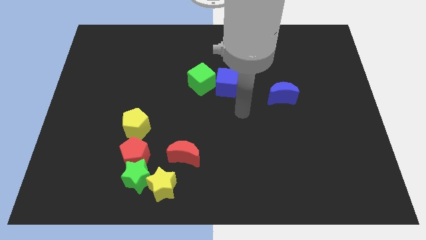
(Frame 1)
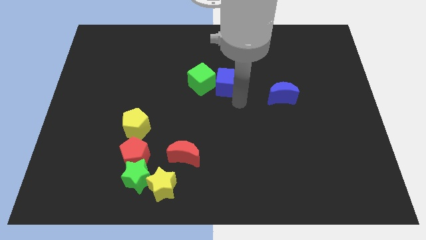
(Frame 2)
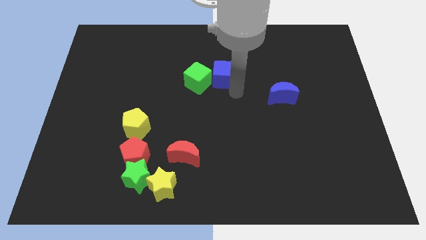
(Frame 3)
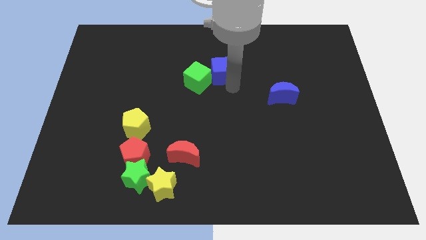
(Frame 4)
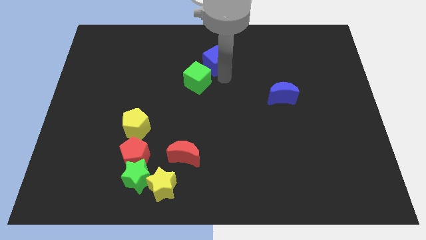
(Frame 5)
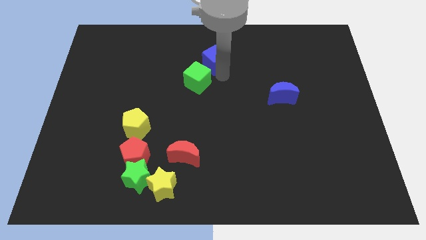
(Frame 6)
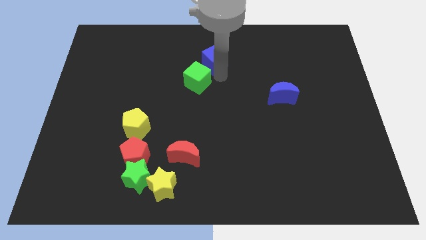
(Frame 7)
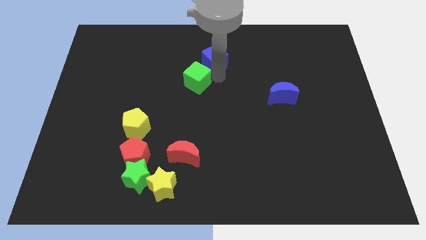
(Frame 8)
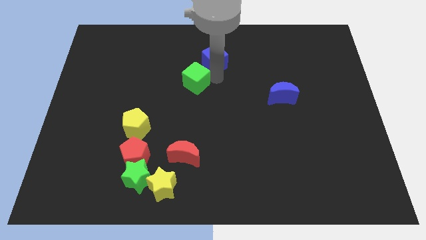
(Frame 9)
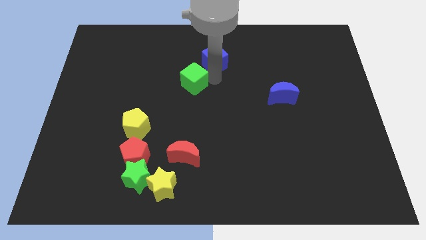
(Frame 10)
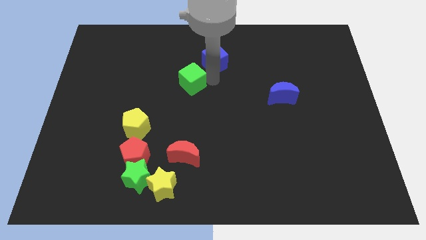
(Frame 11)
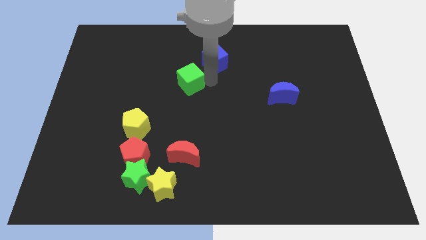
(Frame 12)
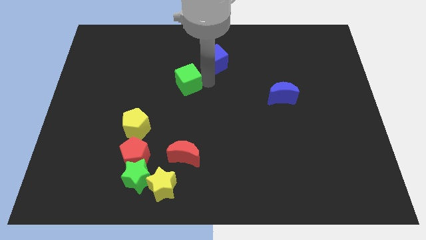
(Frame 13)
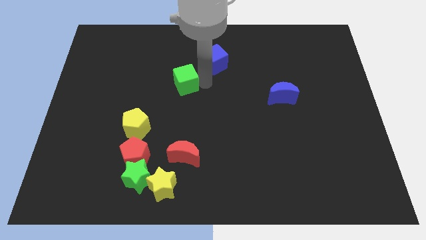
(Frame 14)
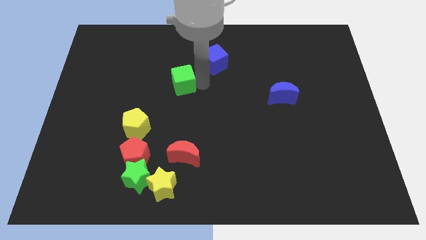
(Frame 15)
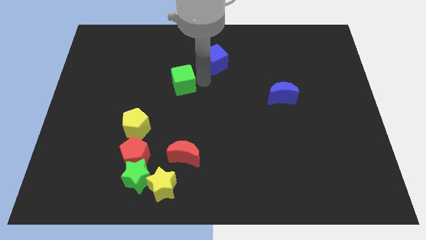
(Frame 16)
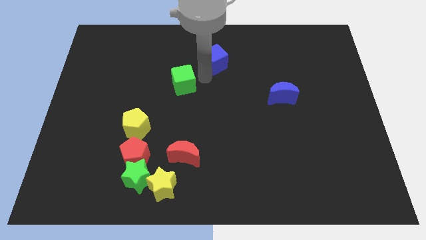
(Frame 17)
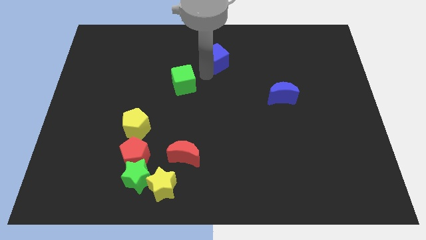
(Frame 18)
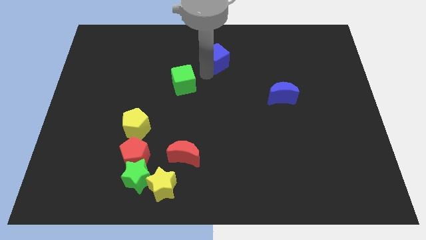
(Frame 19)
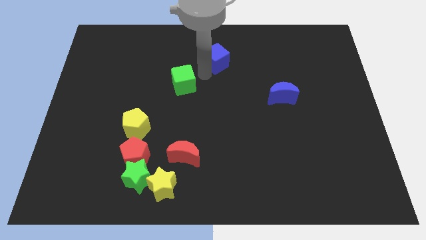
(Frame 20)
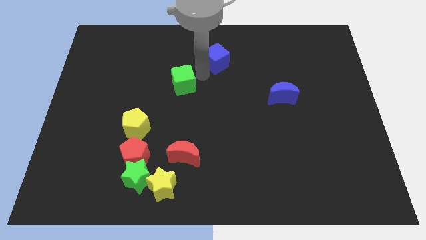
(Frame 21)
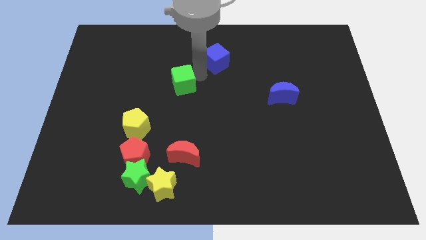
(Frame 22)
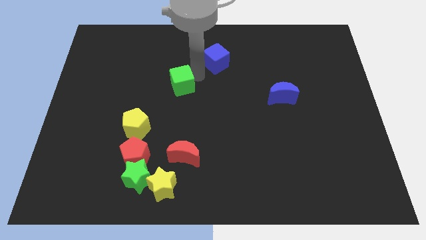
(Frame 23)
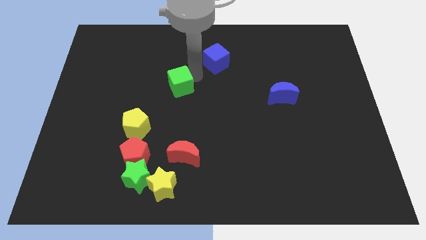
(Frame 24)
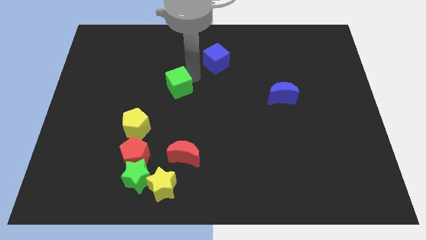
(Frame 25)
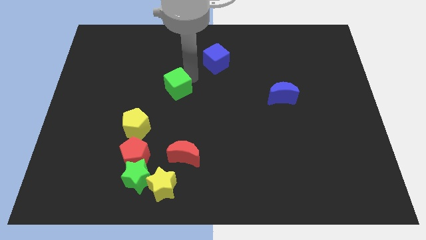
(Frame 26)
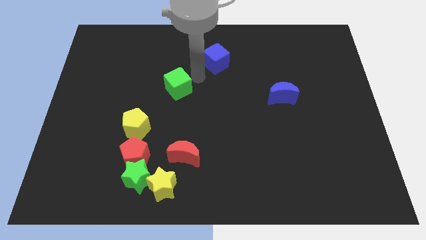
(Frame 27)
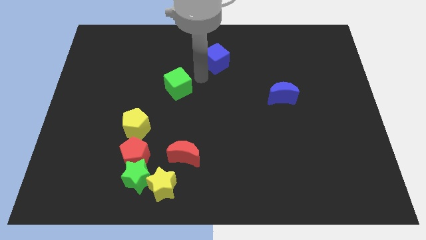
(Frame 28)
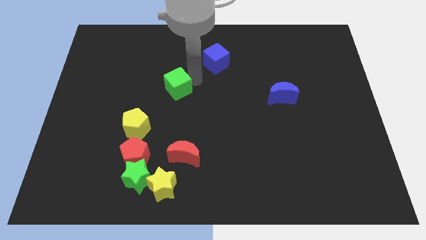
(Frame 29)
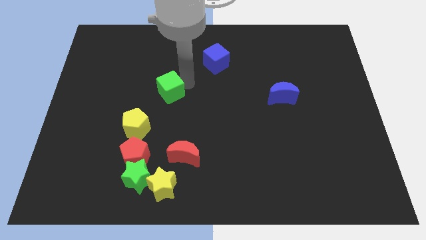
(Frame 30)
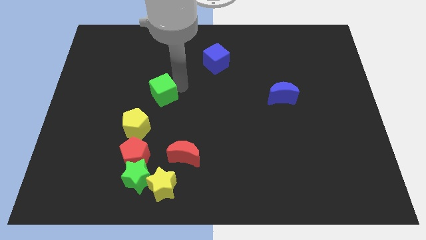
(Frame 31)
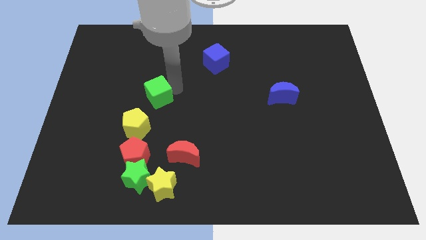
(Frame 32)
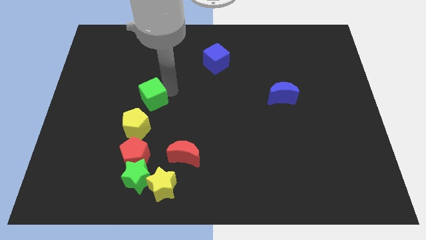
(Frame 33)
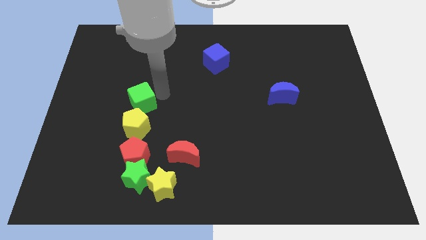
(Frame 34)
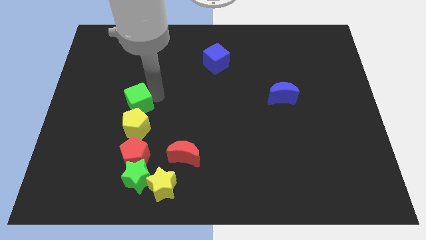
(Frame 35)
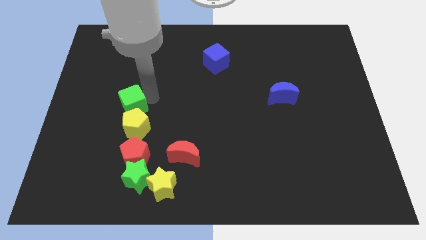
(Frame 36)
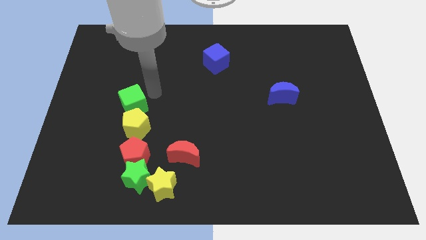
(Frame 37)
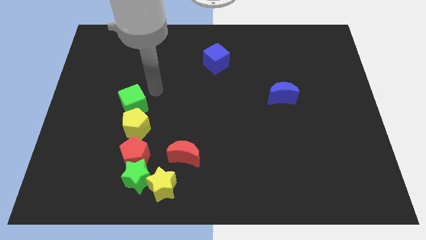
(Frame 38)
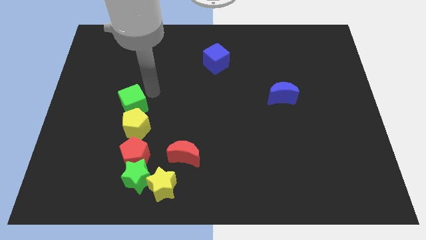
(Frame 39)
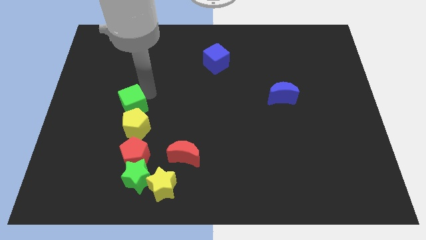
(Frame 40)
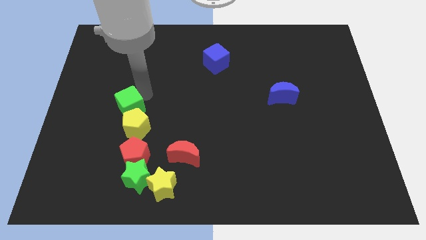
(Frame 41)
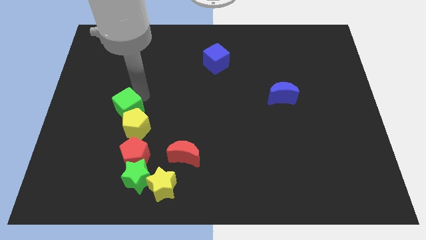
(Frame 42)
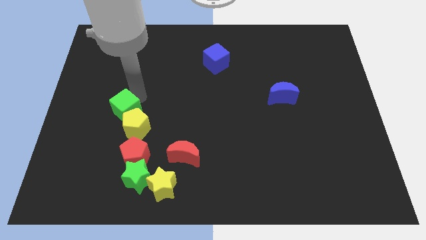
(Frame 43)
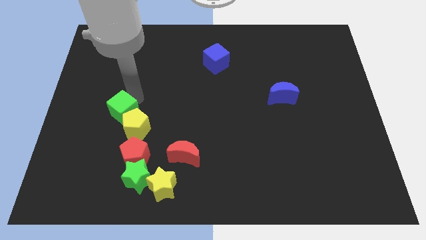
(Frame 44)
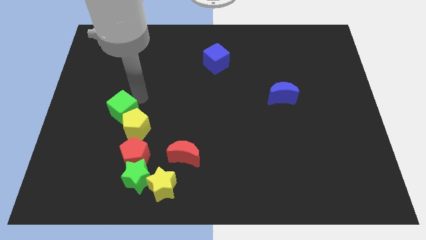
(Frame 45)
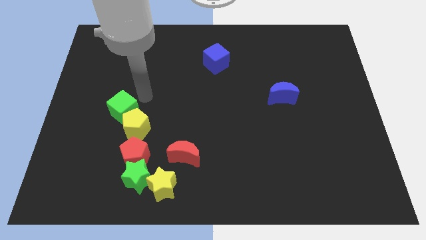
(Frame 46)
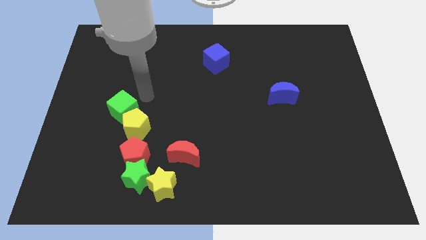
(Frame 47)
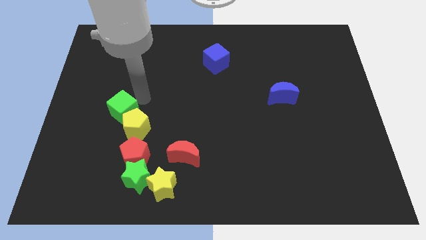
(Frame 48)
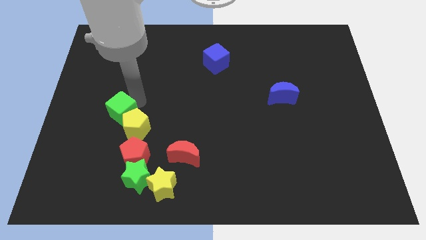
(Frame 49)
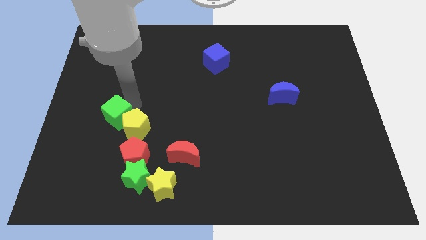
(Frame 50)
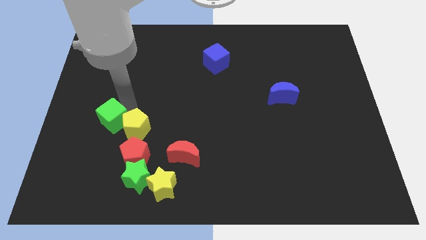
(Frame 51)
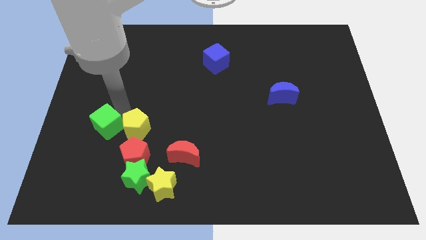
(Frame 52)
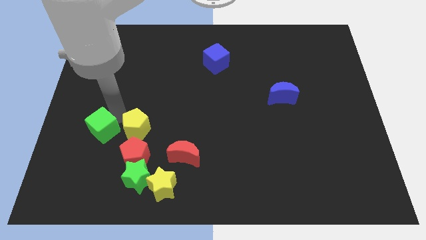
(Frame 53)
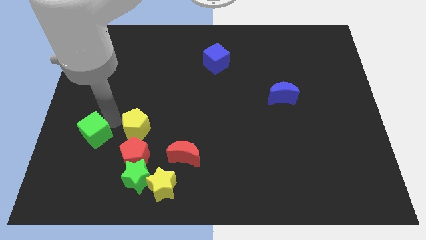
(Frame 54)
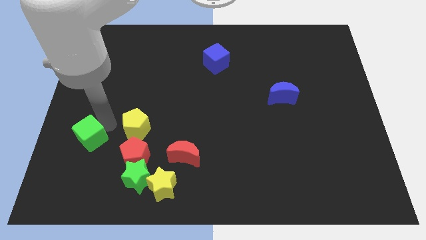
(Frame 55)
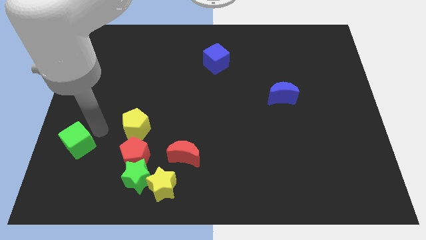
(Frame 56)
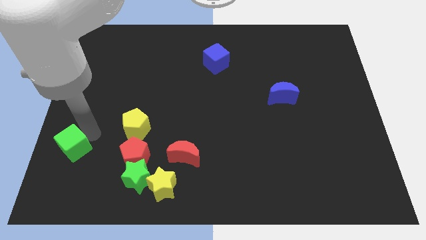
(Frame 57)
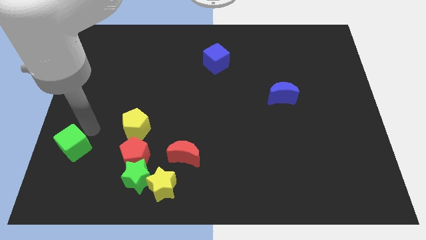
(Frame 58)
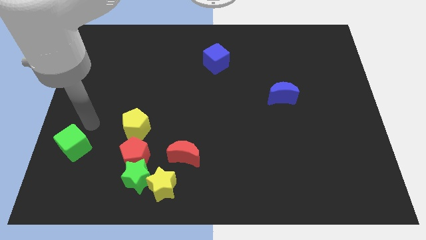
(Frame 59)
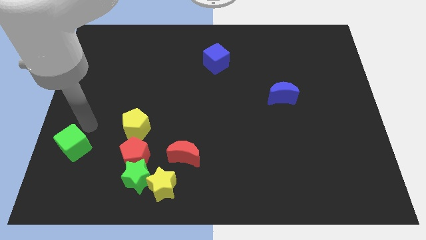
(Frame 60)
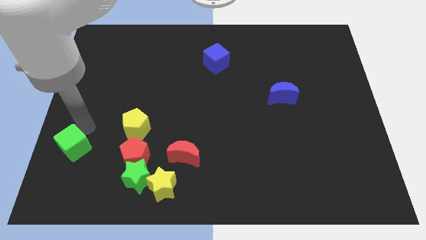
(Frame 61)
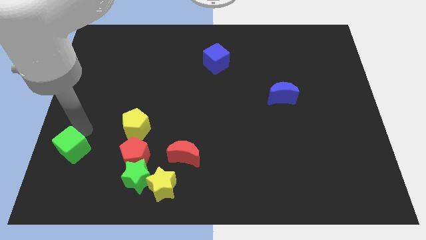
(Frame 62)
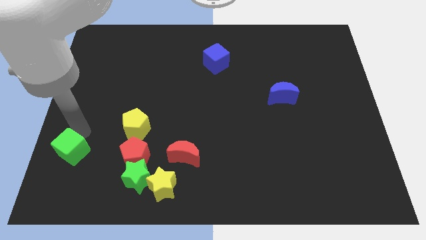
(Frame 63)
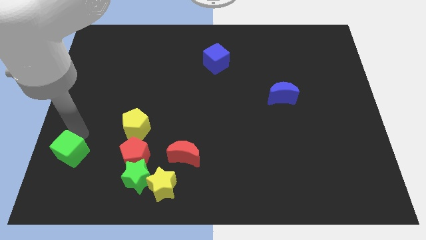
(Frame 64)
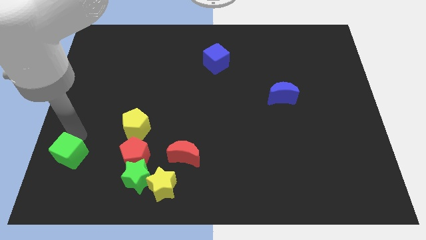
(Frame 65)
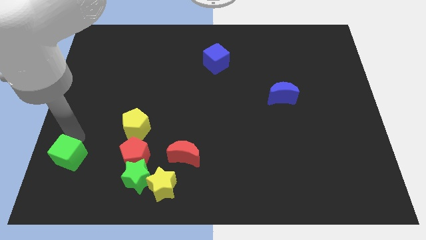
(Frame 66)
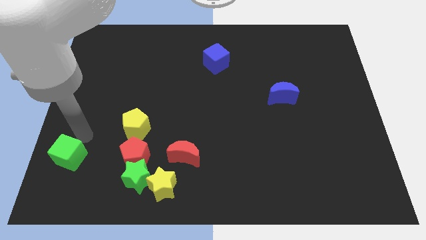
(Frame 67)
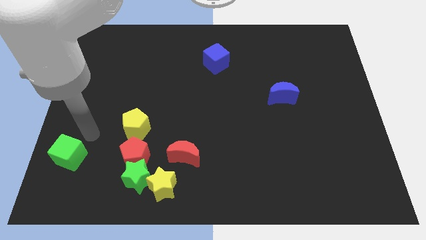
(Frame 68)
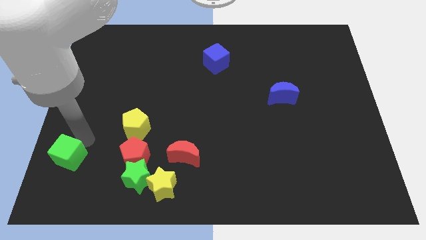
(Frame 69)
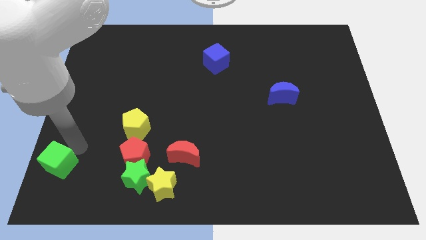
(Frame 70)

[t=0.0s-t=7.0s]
put the green cube to the bottom left corner
